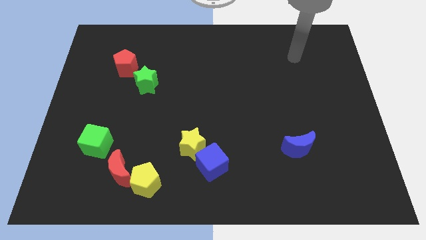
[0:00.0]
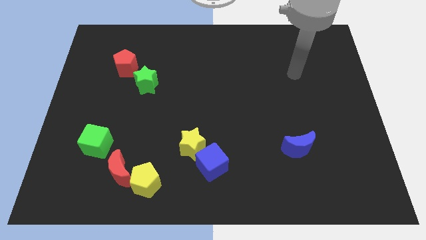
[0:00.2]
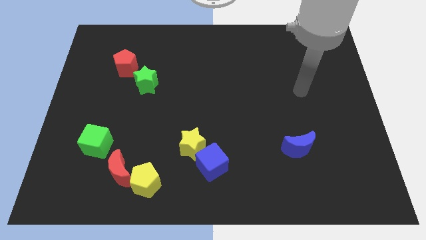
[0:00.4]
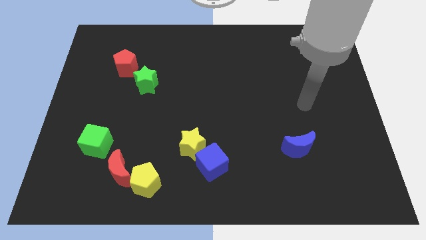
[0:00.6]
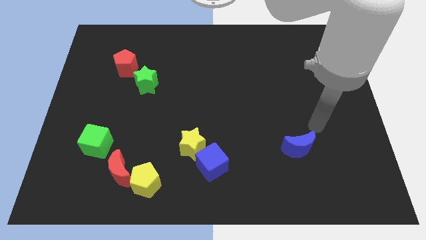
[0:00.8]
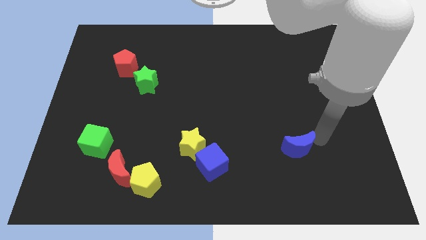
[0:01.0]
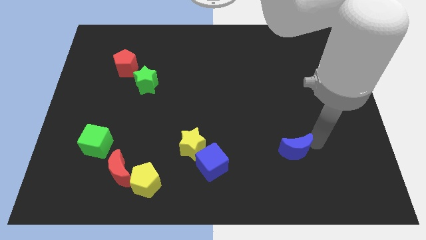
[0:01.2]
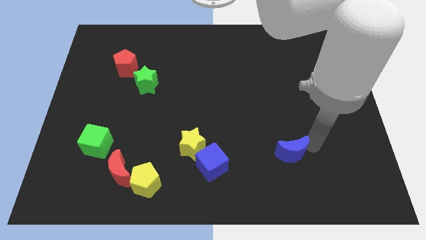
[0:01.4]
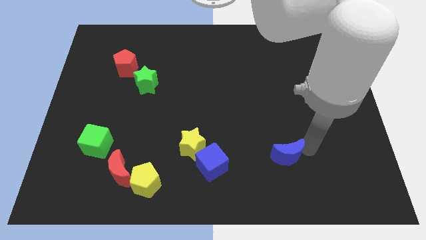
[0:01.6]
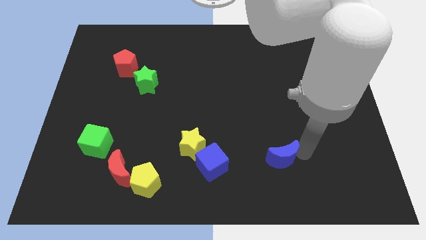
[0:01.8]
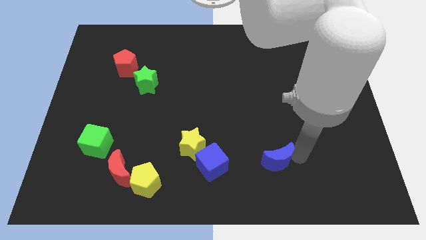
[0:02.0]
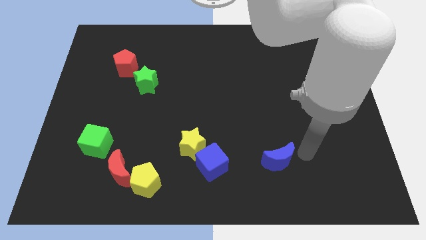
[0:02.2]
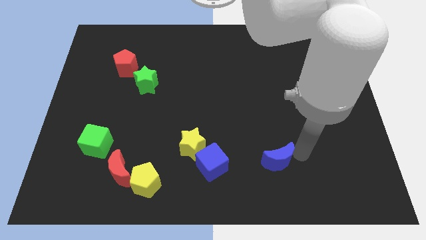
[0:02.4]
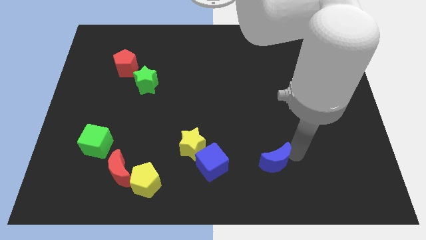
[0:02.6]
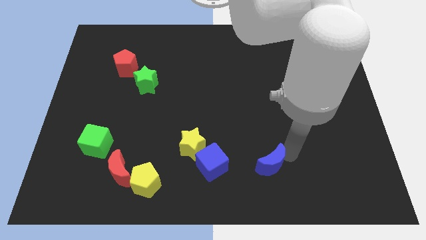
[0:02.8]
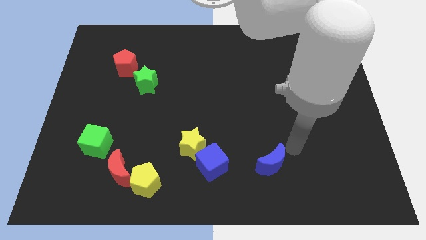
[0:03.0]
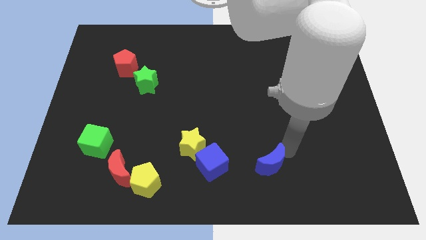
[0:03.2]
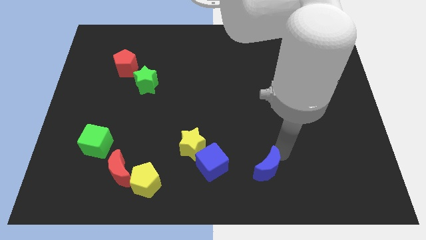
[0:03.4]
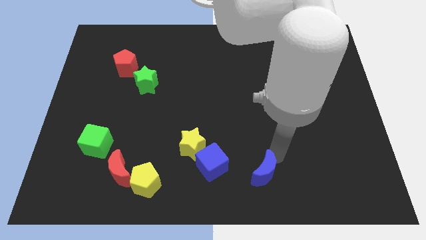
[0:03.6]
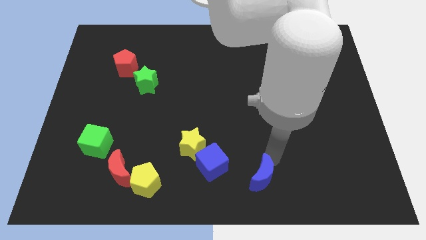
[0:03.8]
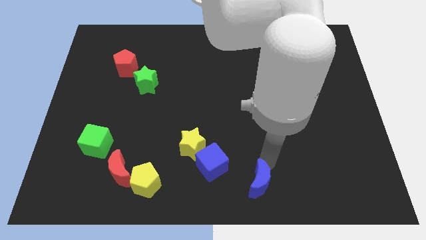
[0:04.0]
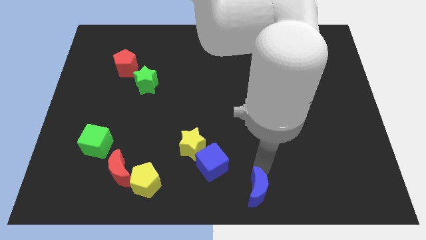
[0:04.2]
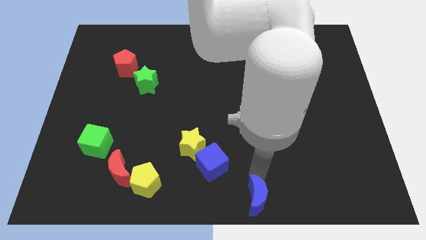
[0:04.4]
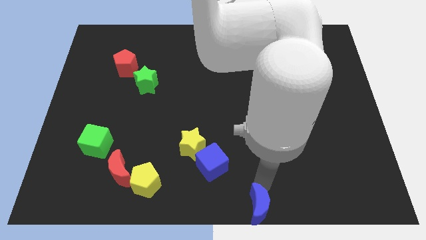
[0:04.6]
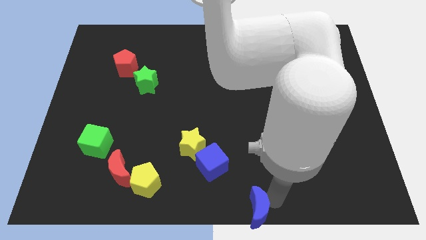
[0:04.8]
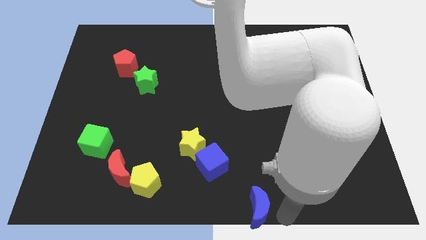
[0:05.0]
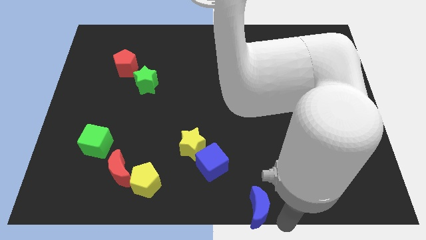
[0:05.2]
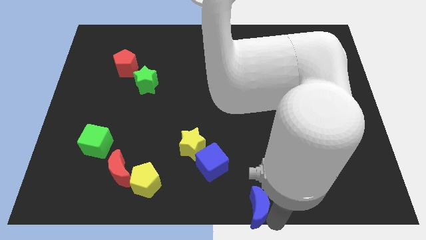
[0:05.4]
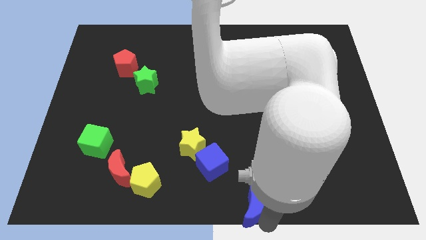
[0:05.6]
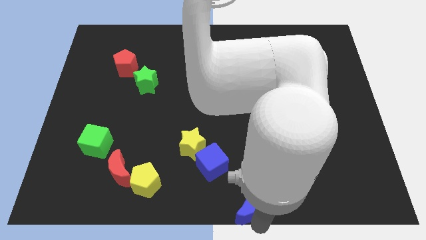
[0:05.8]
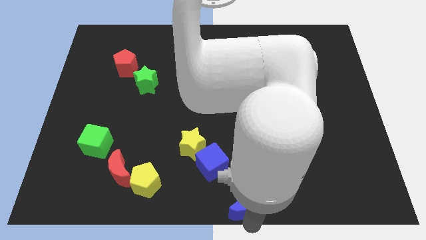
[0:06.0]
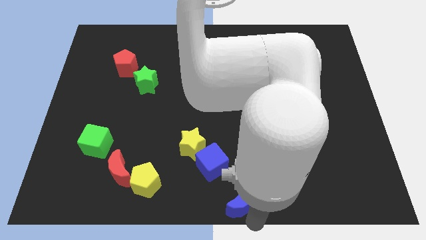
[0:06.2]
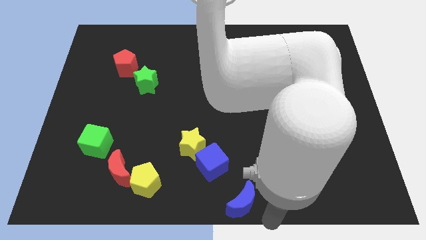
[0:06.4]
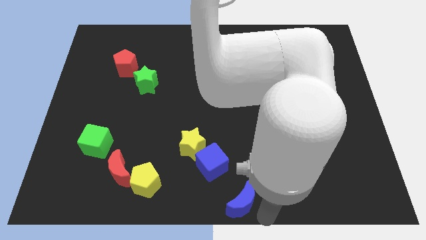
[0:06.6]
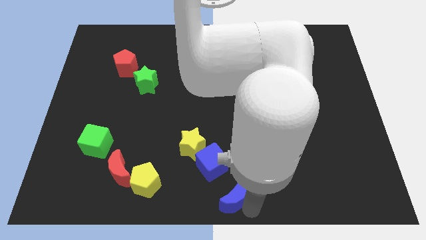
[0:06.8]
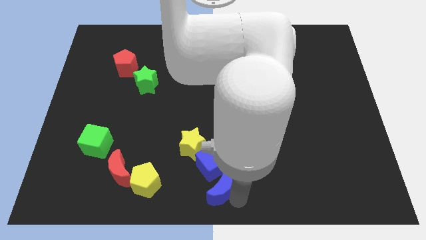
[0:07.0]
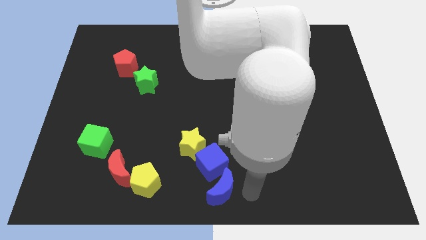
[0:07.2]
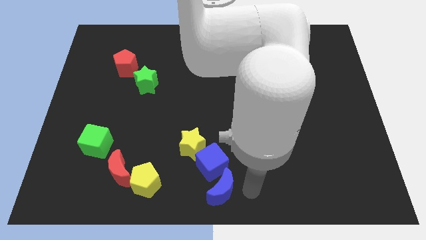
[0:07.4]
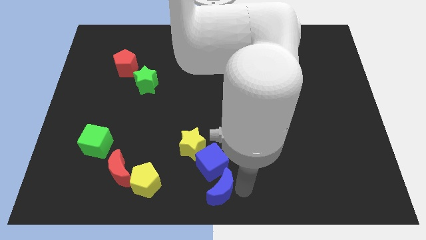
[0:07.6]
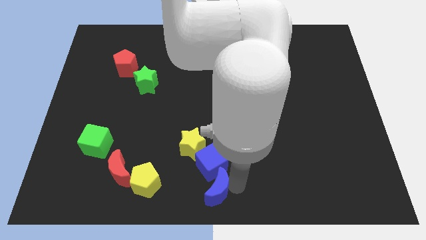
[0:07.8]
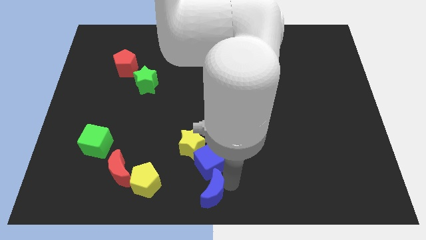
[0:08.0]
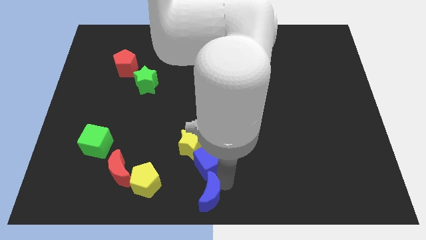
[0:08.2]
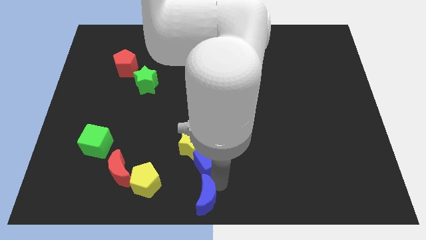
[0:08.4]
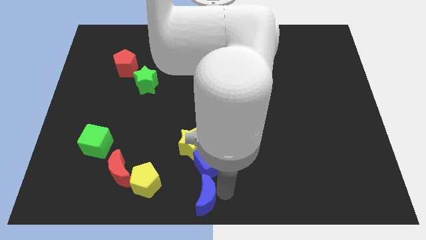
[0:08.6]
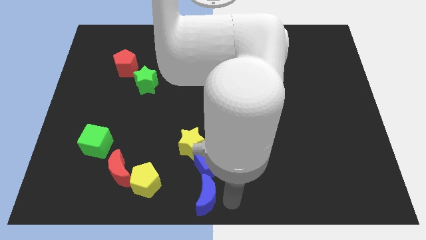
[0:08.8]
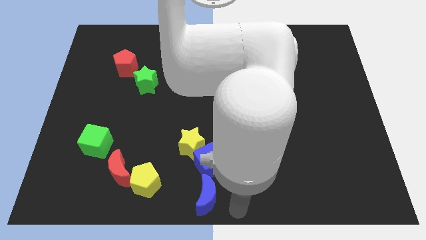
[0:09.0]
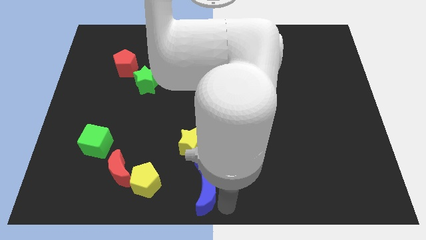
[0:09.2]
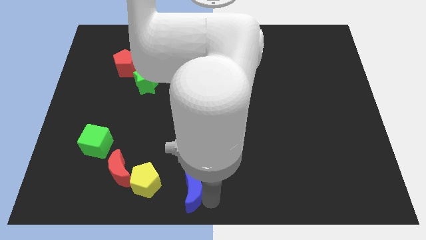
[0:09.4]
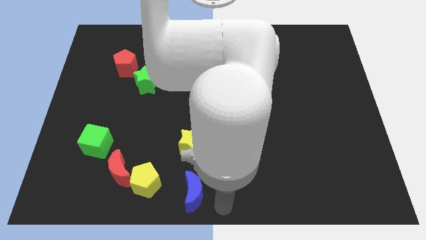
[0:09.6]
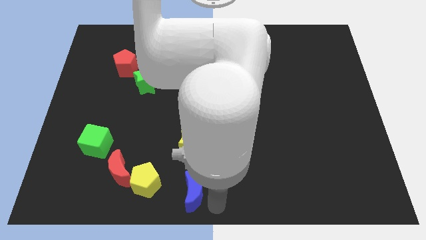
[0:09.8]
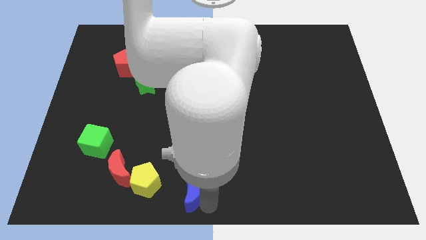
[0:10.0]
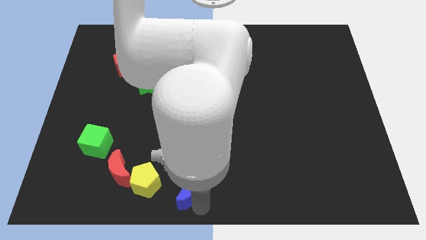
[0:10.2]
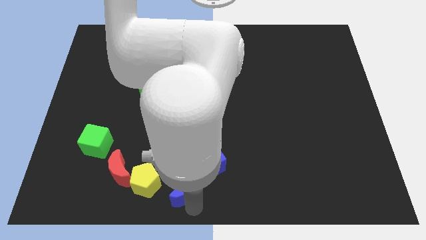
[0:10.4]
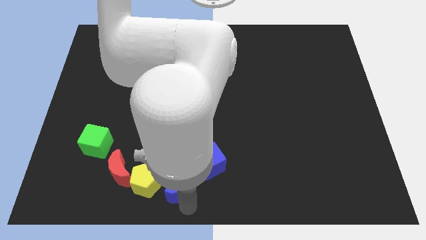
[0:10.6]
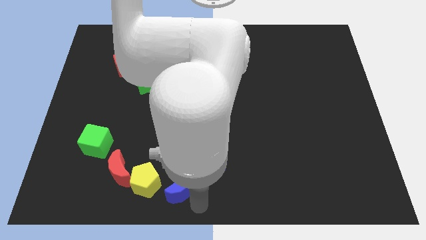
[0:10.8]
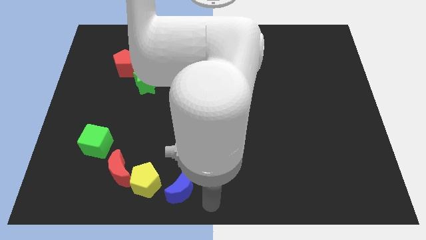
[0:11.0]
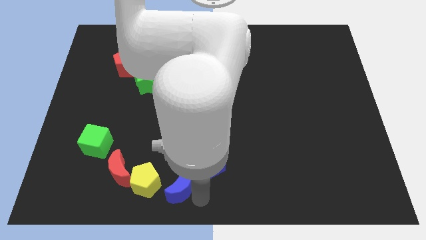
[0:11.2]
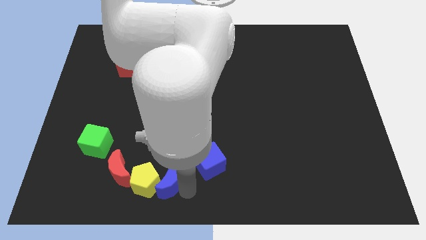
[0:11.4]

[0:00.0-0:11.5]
move the blue moon towards the yellow pentagon

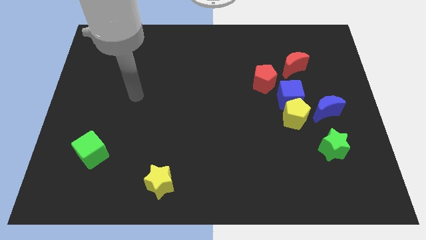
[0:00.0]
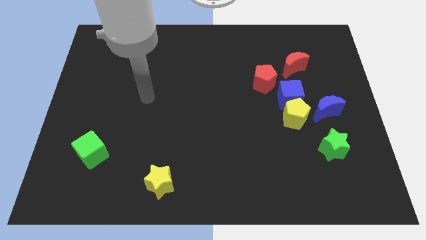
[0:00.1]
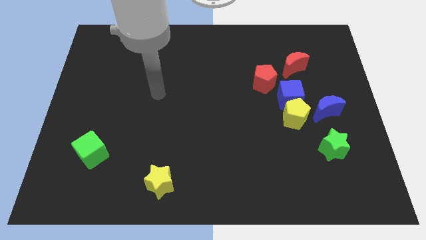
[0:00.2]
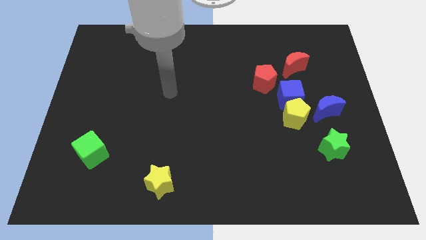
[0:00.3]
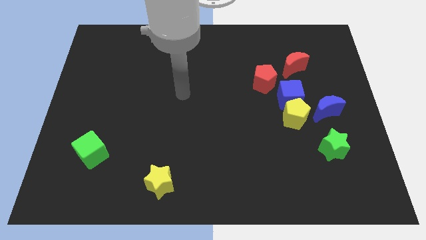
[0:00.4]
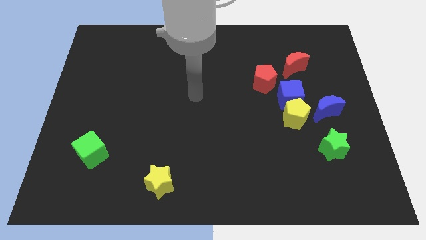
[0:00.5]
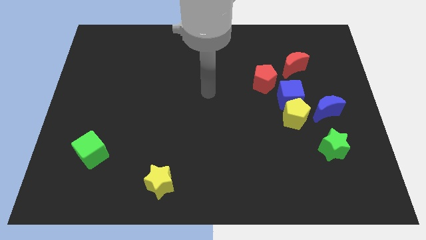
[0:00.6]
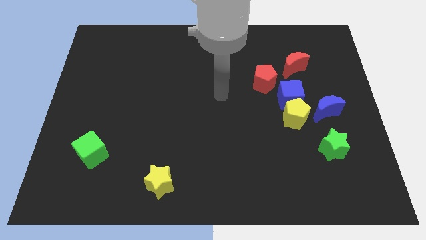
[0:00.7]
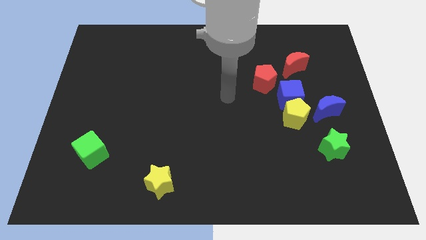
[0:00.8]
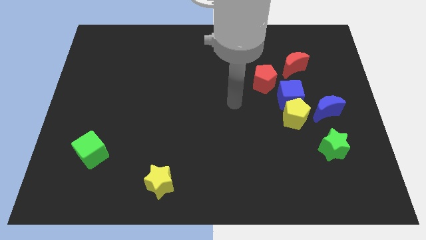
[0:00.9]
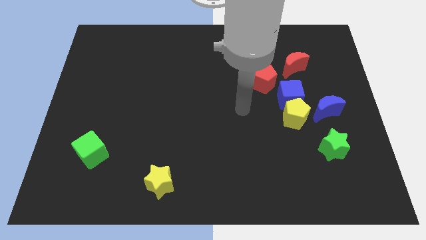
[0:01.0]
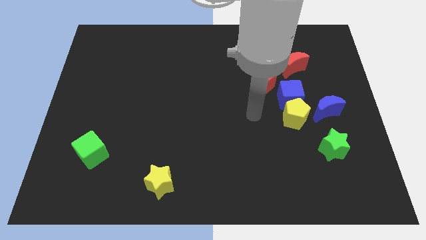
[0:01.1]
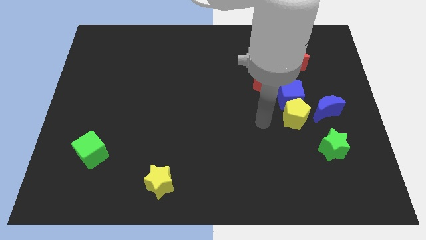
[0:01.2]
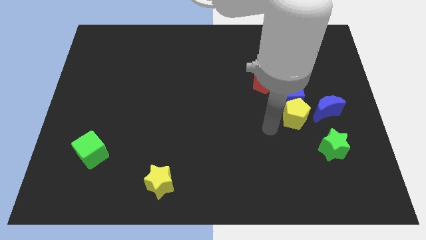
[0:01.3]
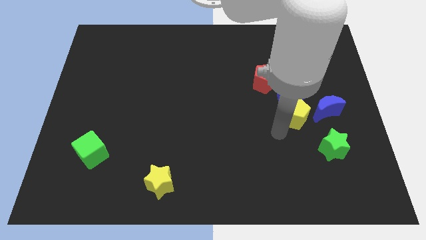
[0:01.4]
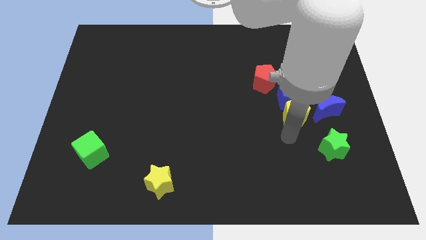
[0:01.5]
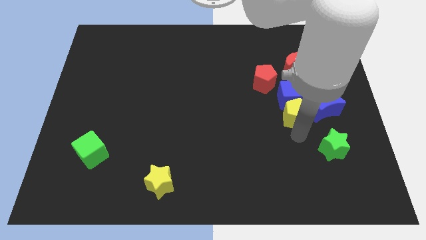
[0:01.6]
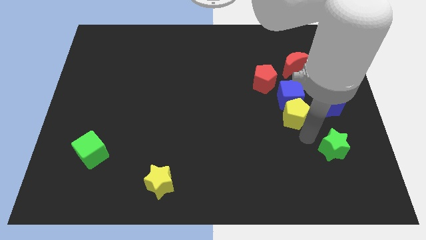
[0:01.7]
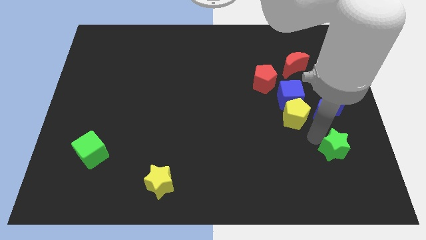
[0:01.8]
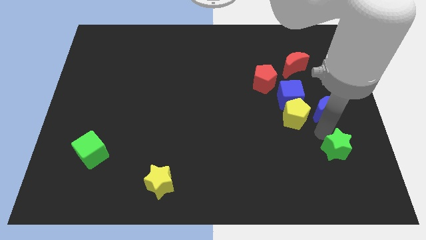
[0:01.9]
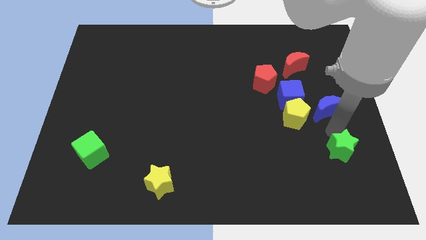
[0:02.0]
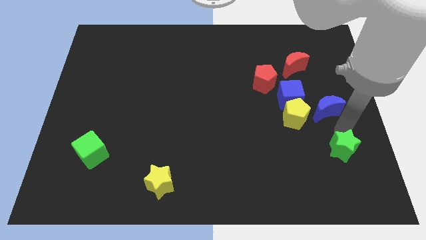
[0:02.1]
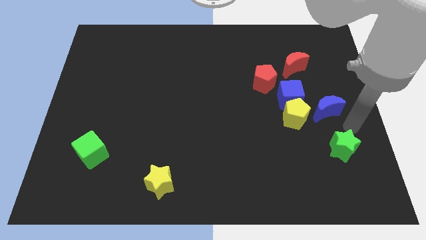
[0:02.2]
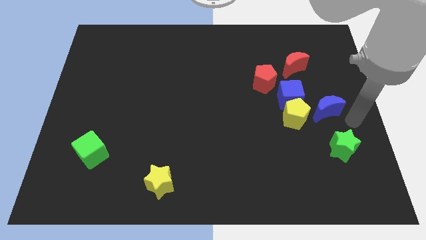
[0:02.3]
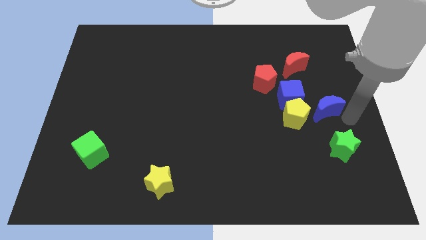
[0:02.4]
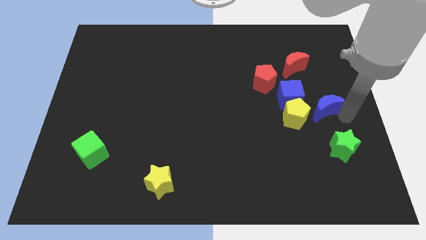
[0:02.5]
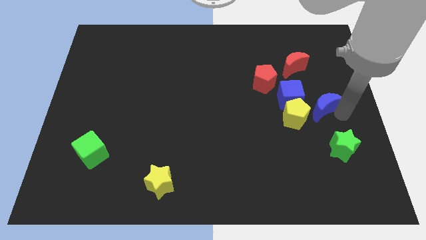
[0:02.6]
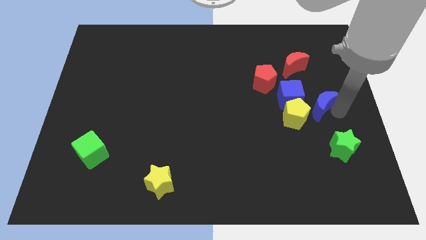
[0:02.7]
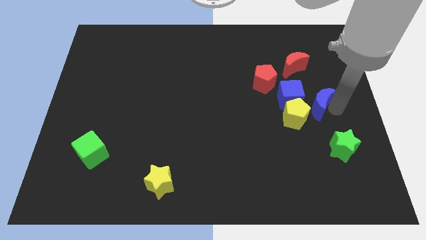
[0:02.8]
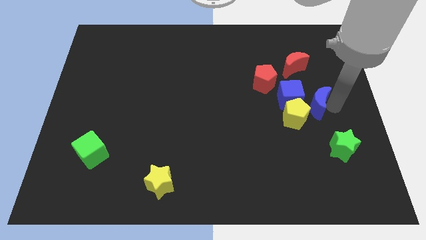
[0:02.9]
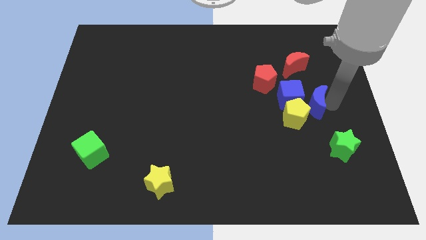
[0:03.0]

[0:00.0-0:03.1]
slide the blue moon next to the blue cube
